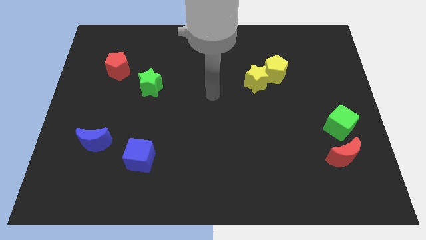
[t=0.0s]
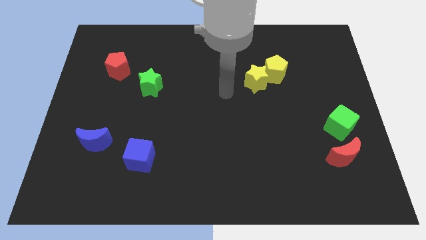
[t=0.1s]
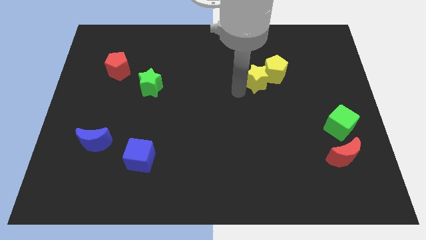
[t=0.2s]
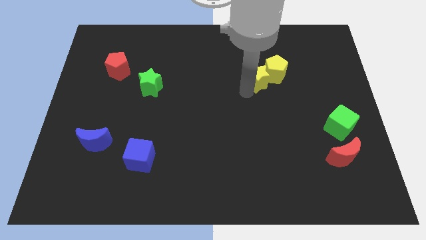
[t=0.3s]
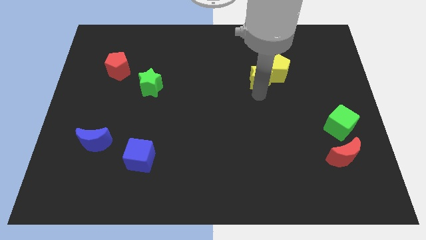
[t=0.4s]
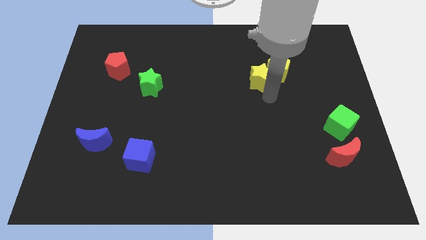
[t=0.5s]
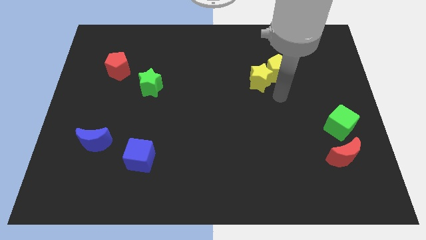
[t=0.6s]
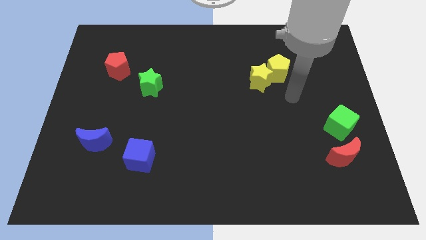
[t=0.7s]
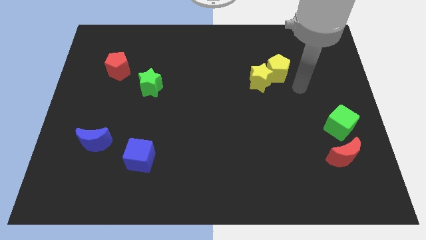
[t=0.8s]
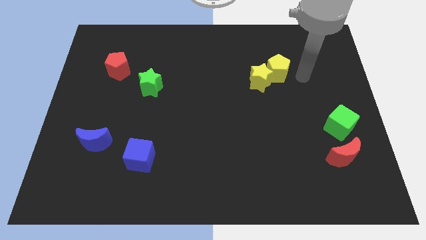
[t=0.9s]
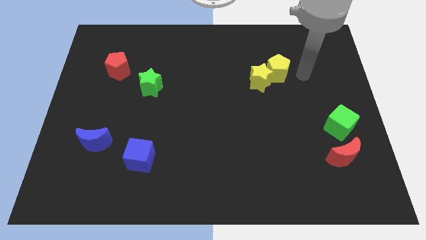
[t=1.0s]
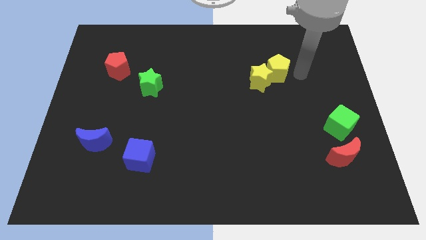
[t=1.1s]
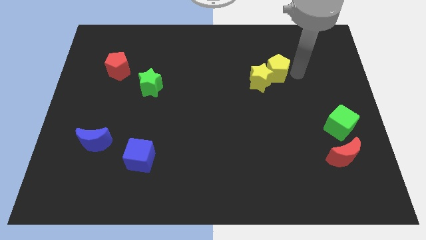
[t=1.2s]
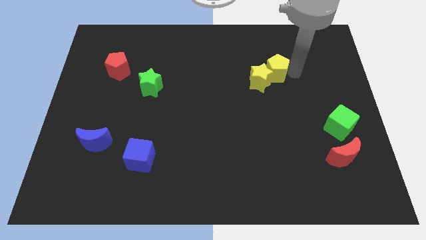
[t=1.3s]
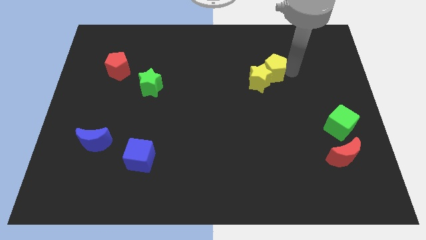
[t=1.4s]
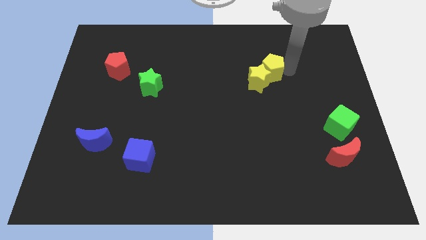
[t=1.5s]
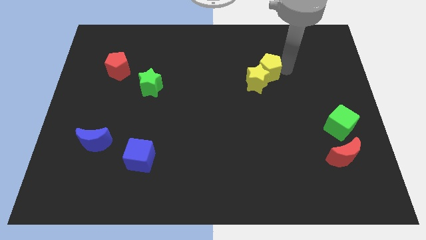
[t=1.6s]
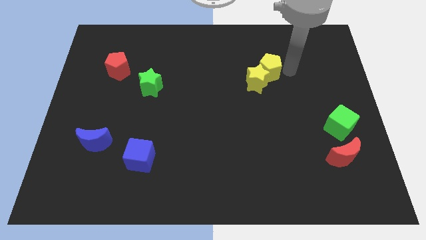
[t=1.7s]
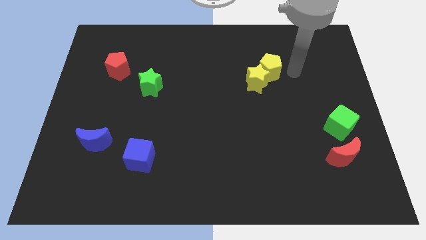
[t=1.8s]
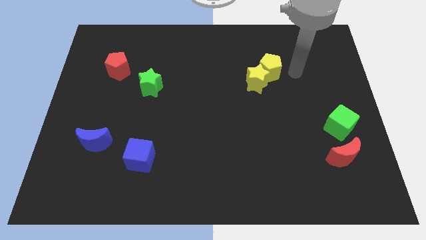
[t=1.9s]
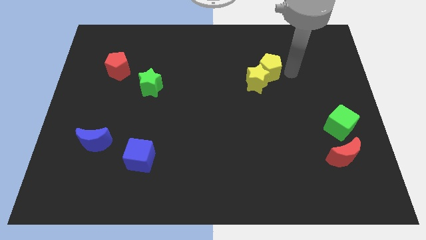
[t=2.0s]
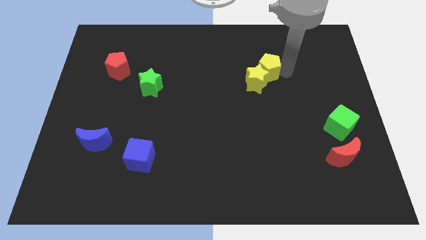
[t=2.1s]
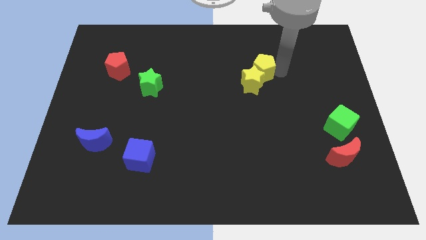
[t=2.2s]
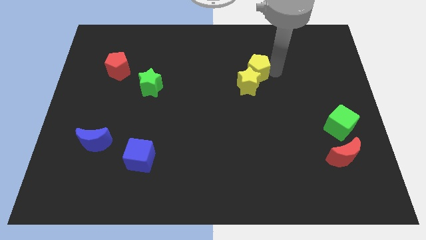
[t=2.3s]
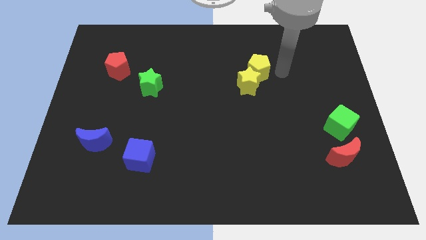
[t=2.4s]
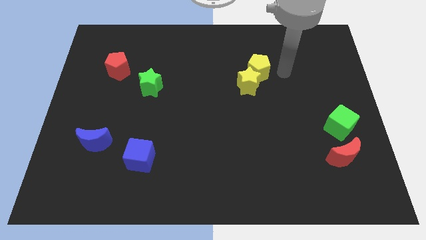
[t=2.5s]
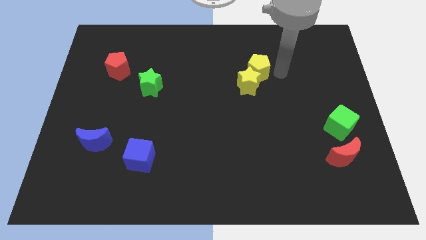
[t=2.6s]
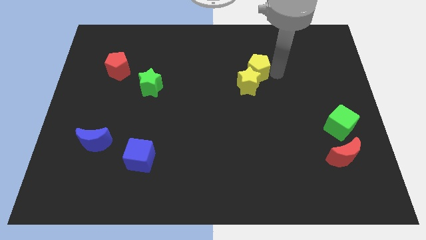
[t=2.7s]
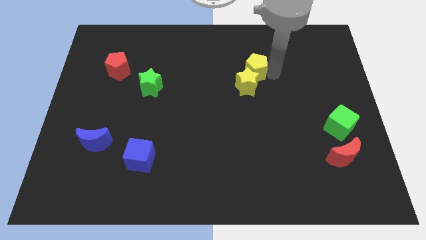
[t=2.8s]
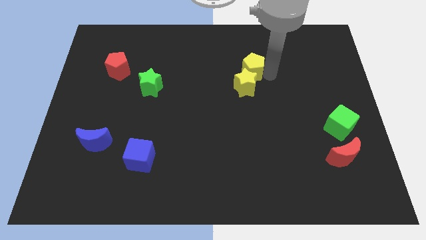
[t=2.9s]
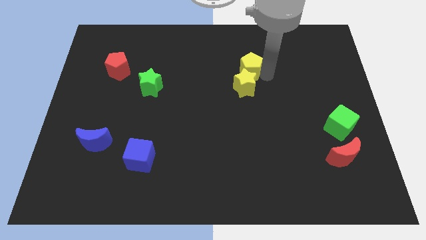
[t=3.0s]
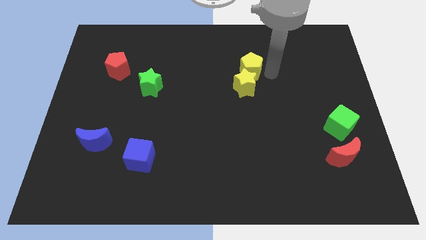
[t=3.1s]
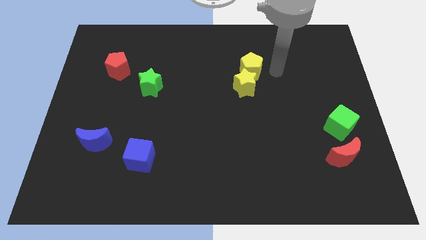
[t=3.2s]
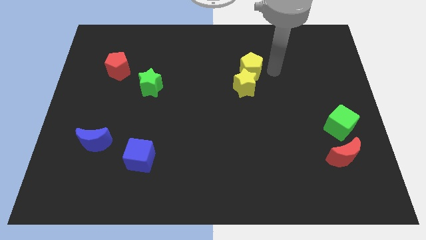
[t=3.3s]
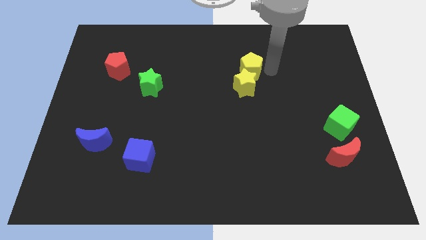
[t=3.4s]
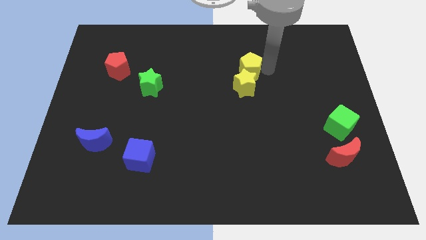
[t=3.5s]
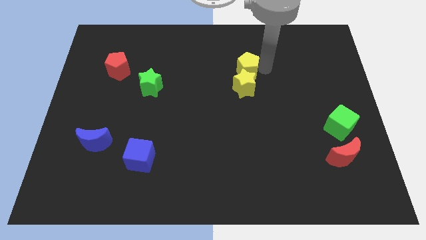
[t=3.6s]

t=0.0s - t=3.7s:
slightly slide the yellow pentagon to the left

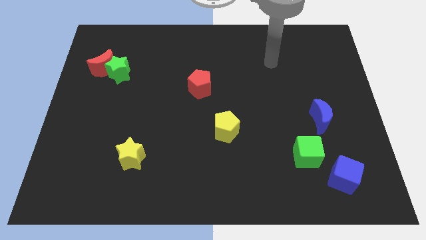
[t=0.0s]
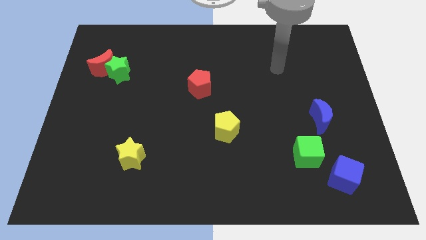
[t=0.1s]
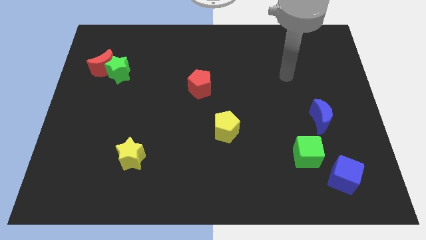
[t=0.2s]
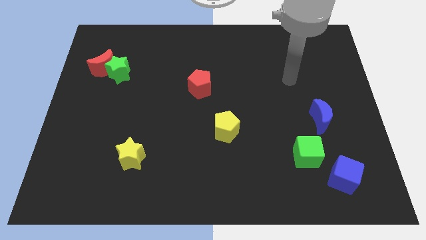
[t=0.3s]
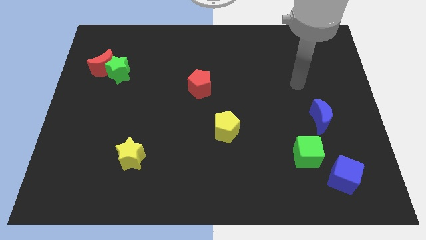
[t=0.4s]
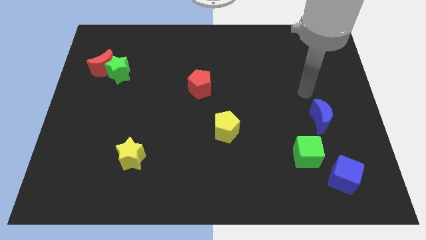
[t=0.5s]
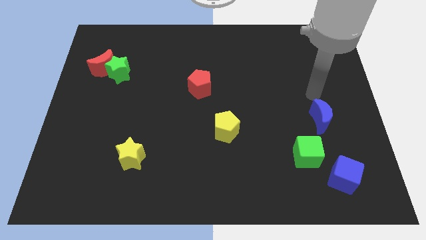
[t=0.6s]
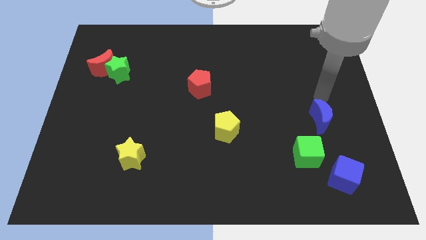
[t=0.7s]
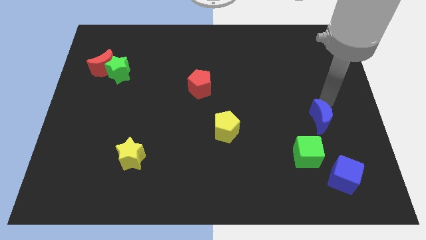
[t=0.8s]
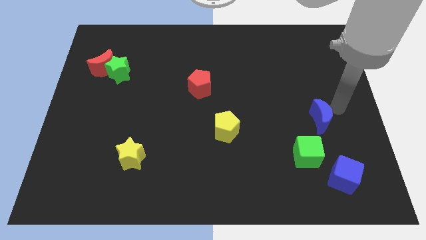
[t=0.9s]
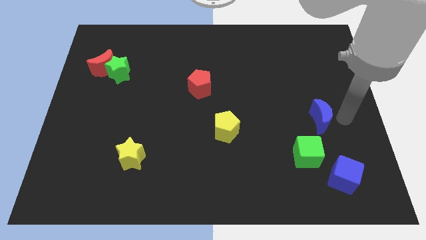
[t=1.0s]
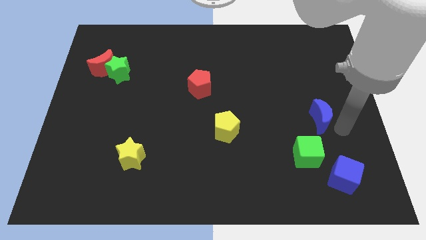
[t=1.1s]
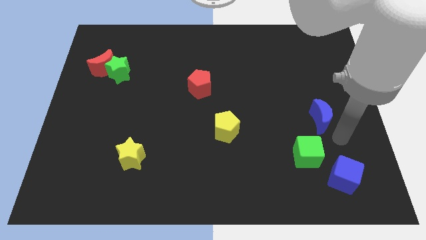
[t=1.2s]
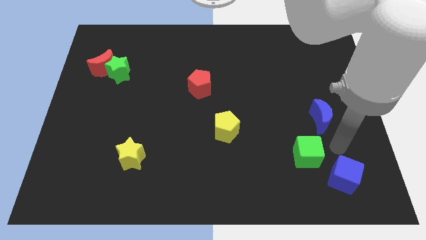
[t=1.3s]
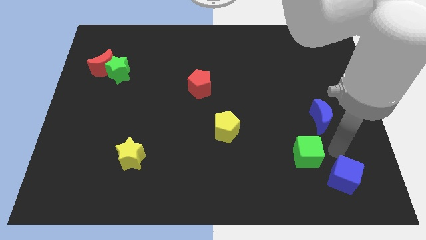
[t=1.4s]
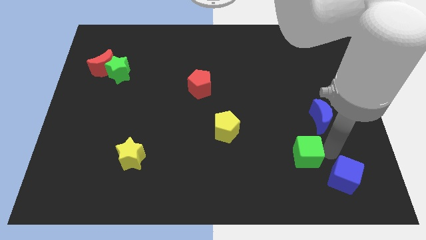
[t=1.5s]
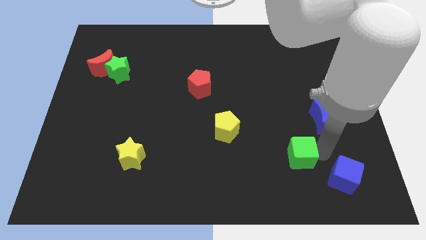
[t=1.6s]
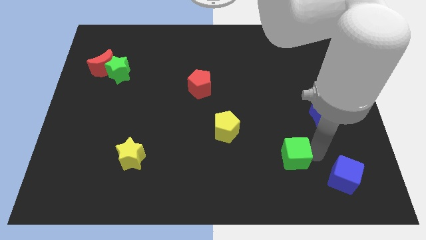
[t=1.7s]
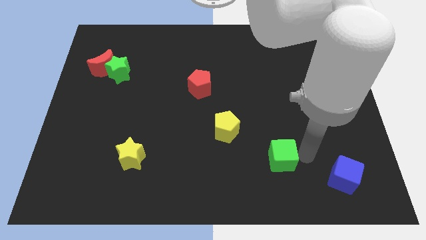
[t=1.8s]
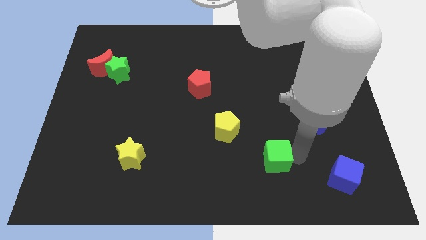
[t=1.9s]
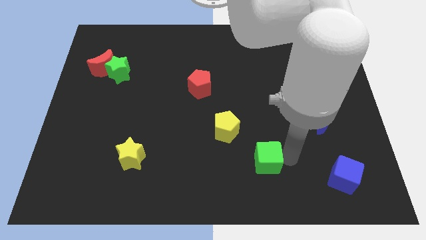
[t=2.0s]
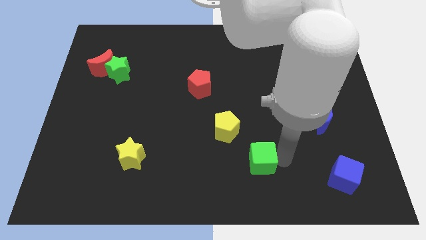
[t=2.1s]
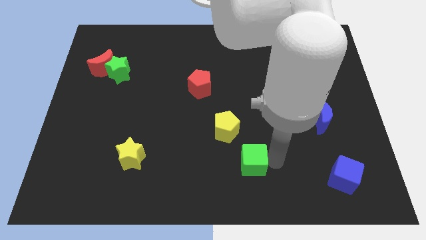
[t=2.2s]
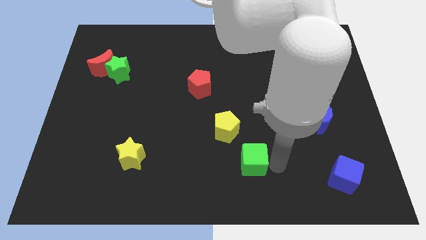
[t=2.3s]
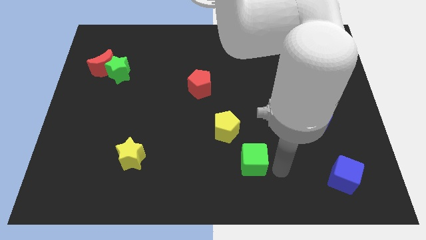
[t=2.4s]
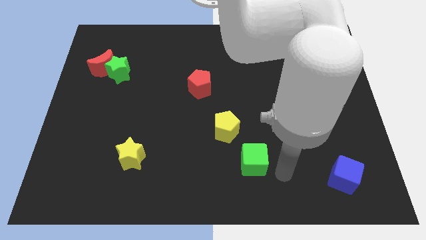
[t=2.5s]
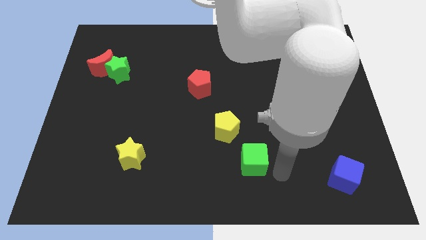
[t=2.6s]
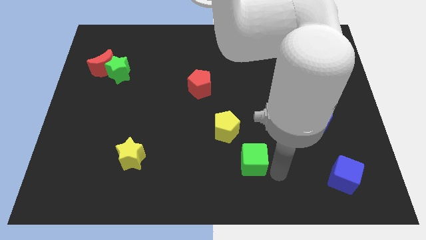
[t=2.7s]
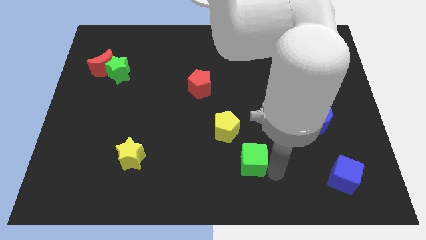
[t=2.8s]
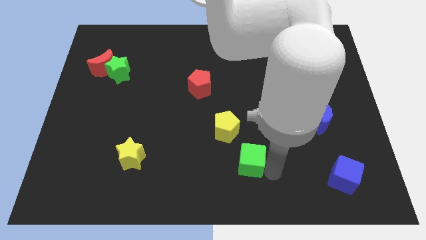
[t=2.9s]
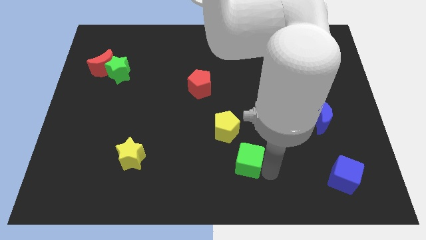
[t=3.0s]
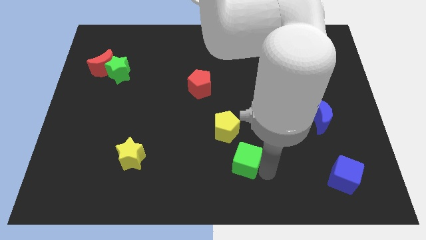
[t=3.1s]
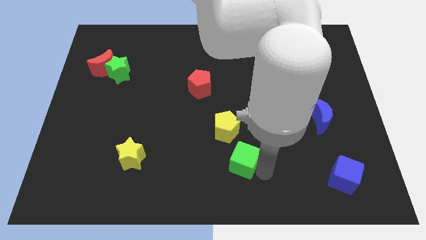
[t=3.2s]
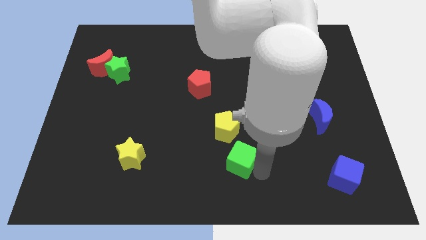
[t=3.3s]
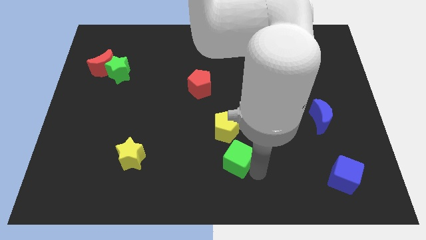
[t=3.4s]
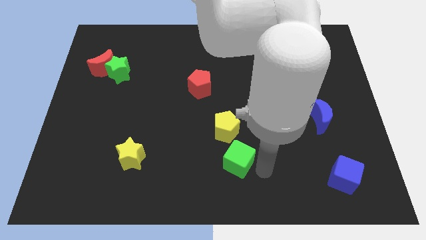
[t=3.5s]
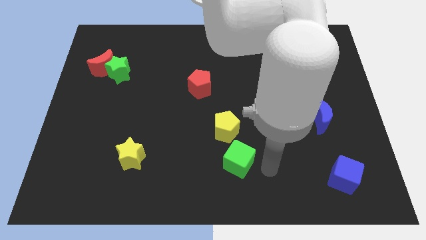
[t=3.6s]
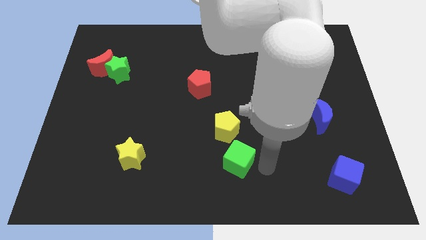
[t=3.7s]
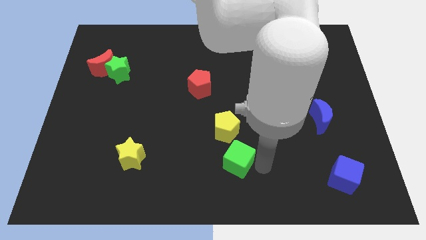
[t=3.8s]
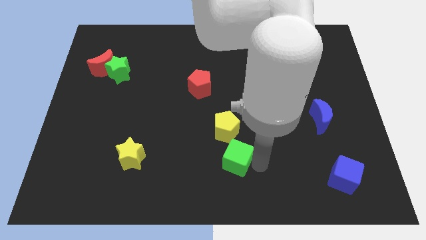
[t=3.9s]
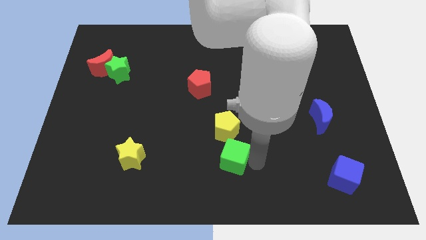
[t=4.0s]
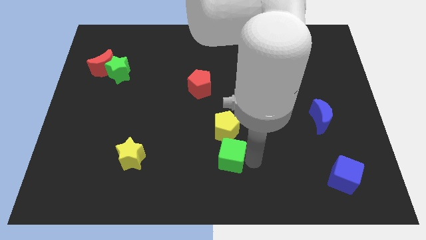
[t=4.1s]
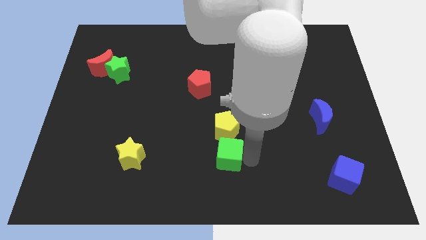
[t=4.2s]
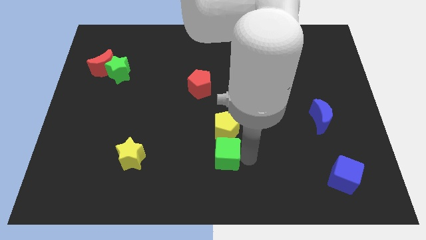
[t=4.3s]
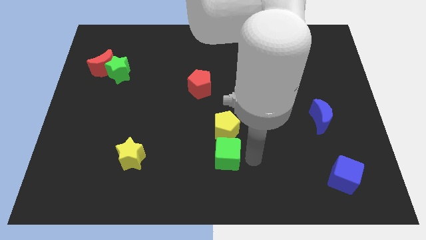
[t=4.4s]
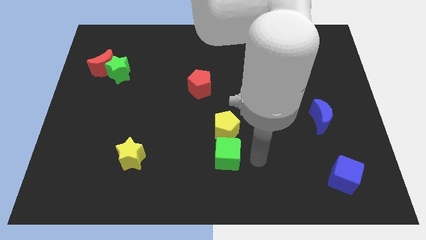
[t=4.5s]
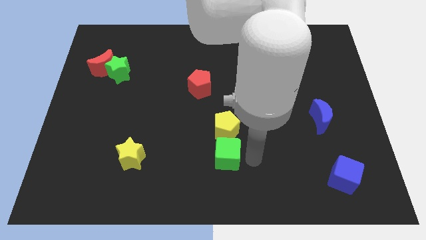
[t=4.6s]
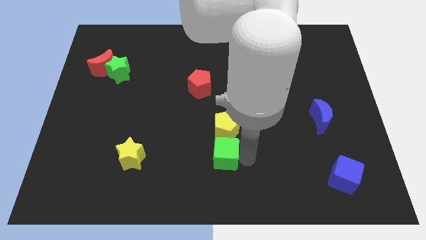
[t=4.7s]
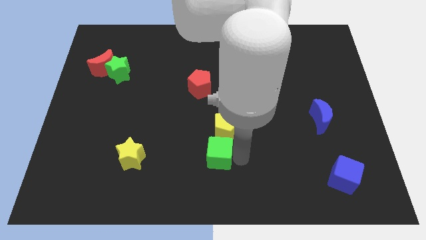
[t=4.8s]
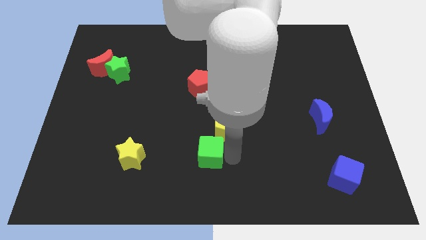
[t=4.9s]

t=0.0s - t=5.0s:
move the green cube to the left
